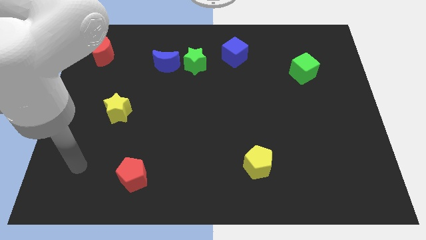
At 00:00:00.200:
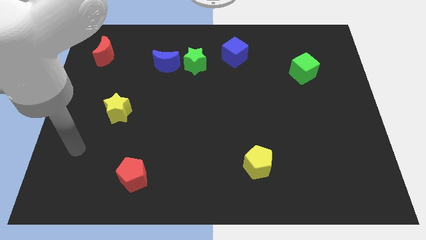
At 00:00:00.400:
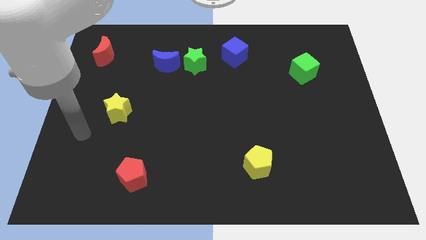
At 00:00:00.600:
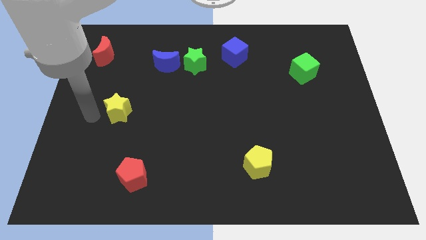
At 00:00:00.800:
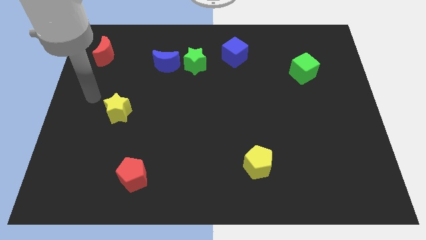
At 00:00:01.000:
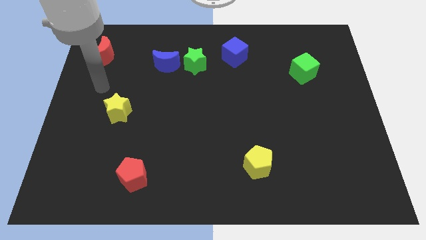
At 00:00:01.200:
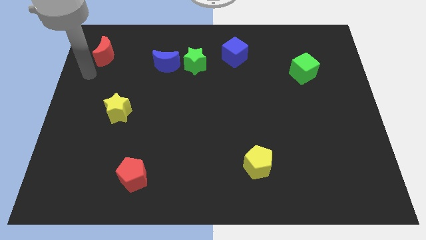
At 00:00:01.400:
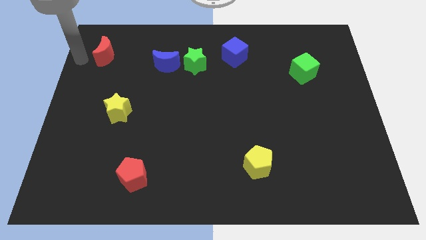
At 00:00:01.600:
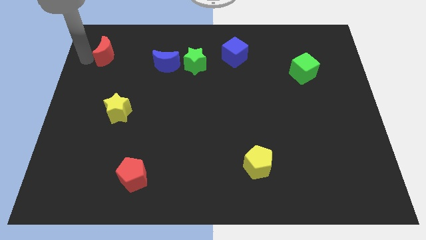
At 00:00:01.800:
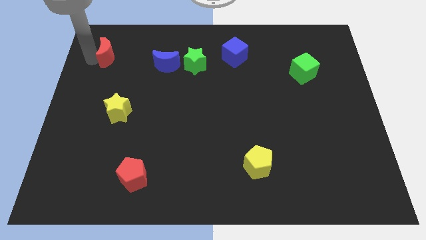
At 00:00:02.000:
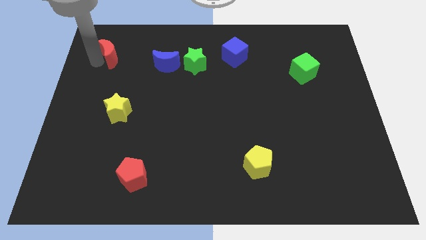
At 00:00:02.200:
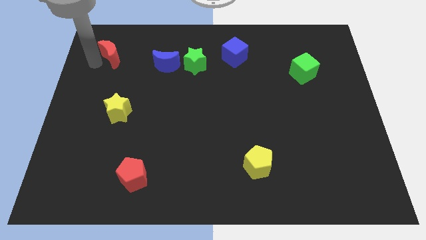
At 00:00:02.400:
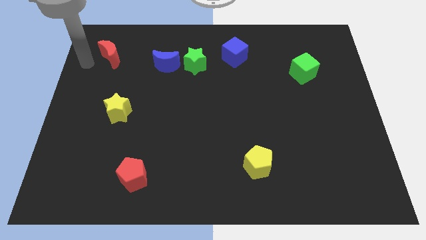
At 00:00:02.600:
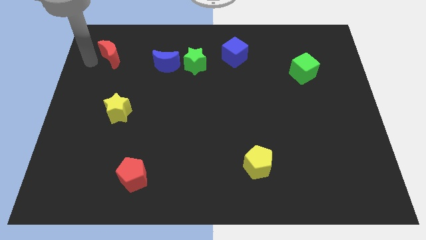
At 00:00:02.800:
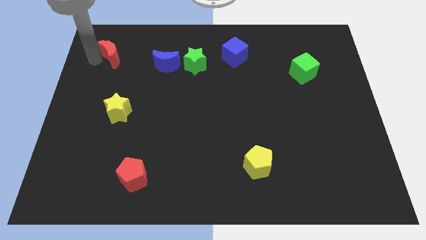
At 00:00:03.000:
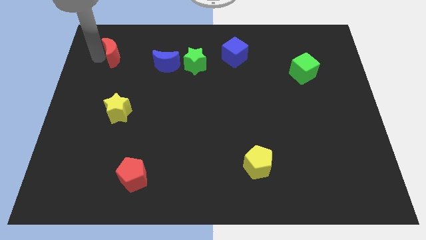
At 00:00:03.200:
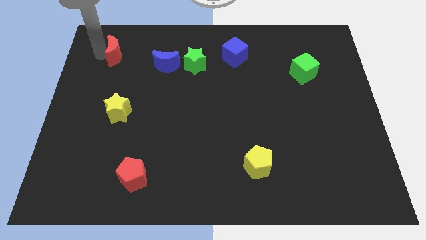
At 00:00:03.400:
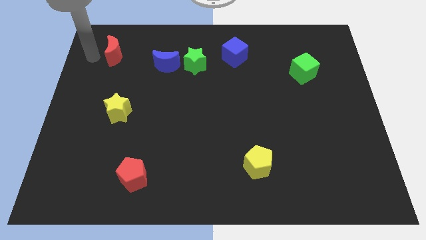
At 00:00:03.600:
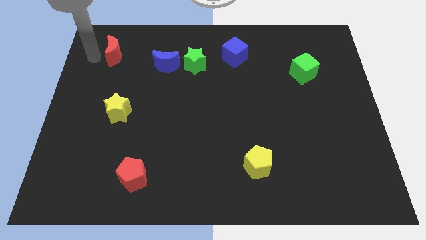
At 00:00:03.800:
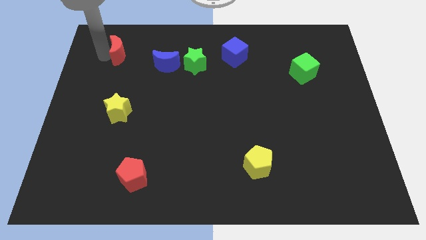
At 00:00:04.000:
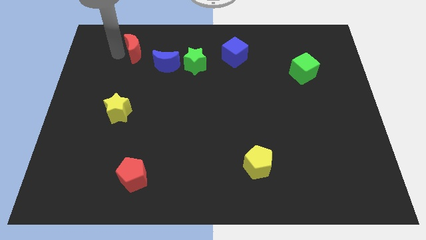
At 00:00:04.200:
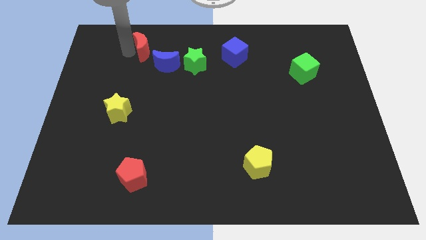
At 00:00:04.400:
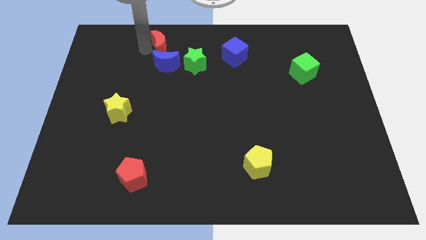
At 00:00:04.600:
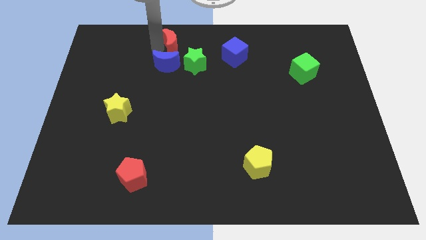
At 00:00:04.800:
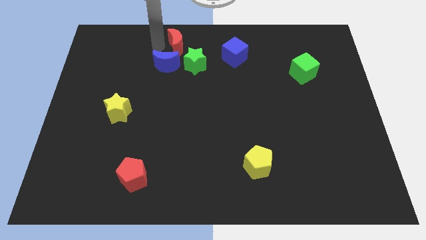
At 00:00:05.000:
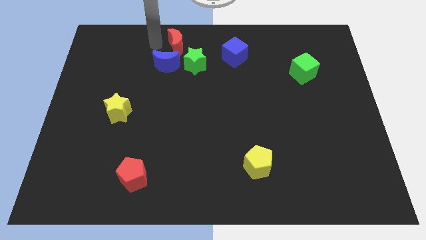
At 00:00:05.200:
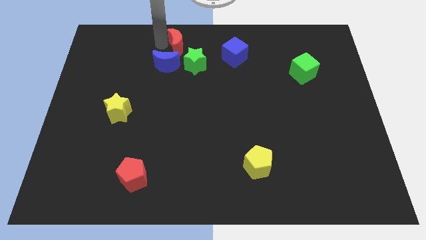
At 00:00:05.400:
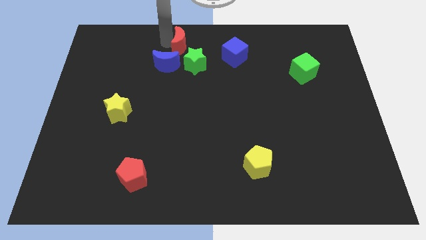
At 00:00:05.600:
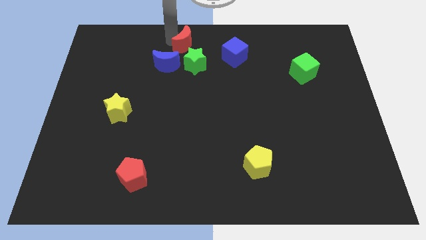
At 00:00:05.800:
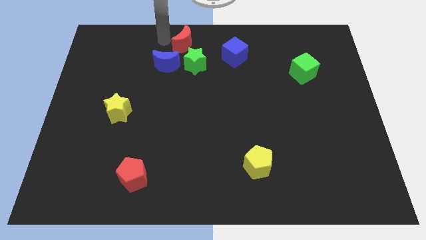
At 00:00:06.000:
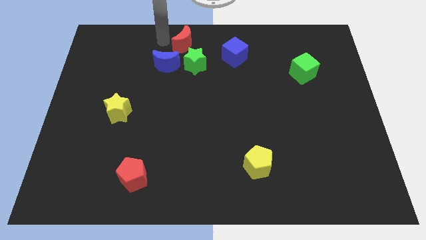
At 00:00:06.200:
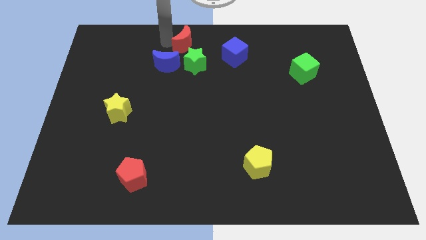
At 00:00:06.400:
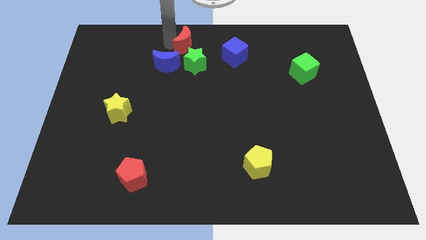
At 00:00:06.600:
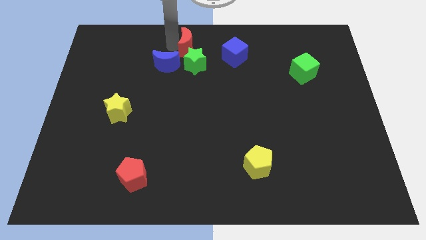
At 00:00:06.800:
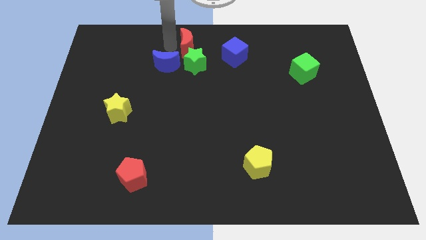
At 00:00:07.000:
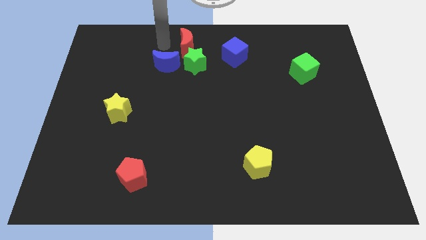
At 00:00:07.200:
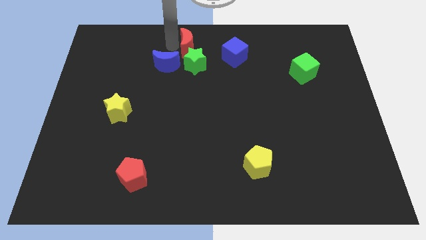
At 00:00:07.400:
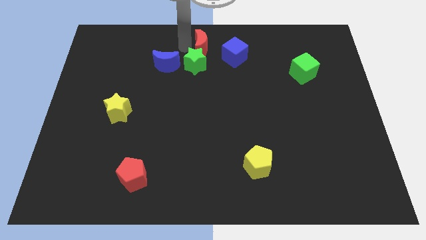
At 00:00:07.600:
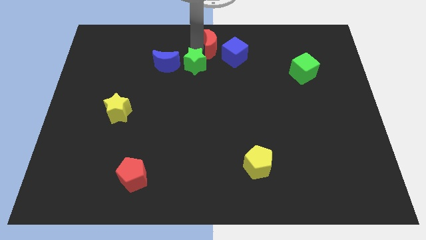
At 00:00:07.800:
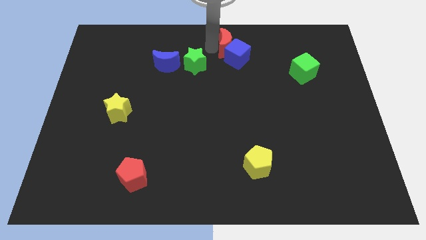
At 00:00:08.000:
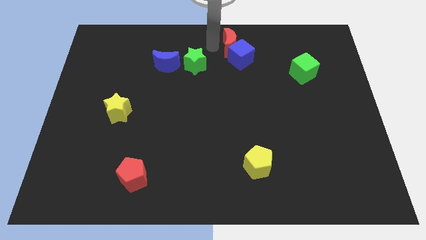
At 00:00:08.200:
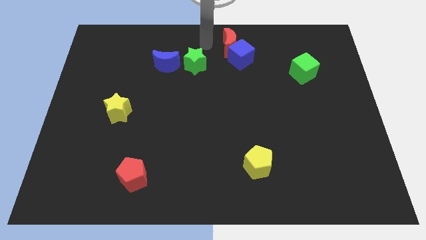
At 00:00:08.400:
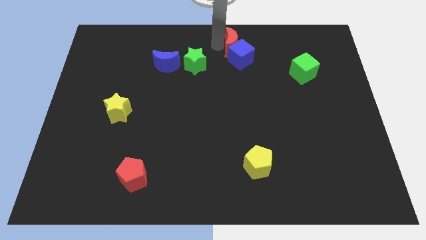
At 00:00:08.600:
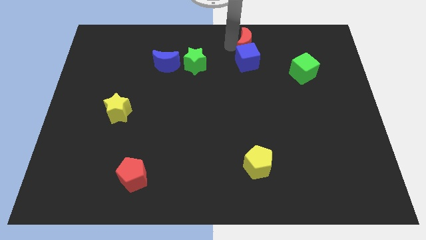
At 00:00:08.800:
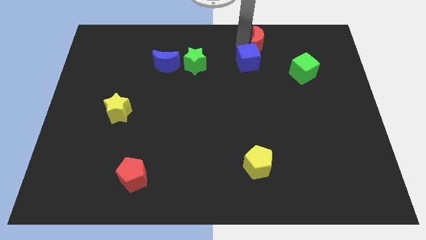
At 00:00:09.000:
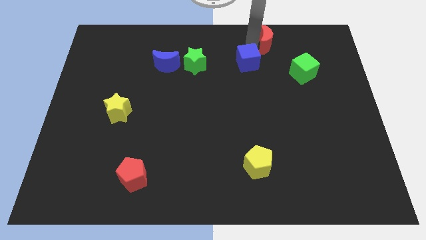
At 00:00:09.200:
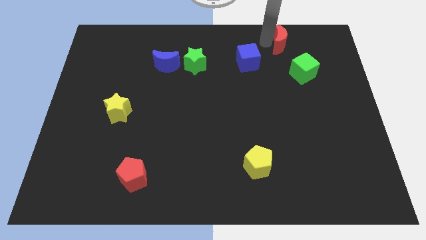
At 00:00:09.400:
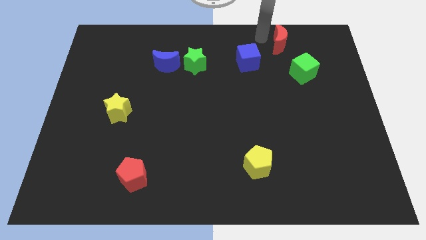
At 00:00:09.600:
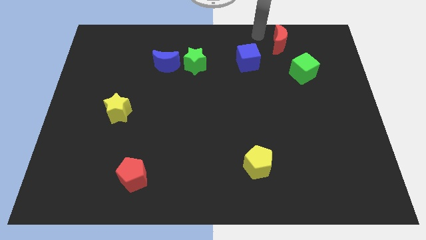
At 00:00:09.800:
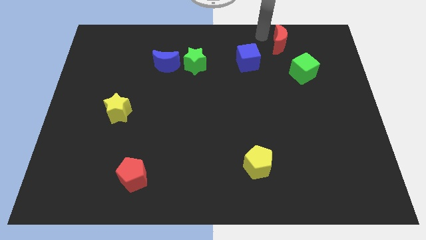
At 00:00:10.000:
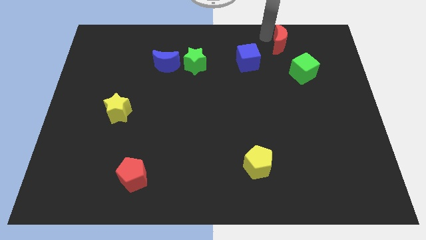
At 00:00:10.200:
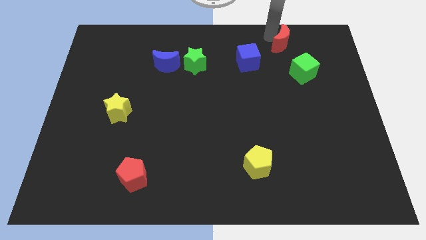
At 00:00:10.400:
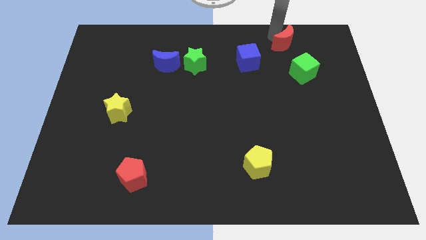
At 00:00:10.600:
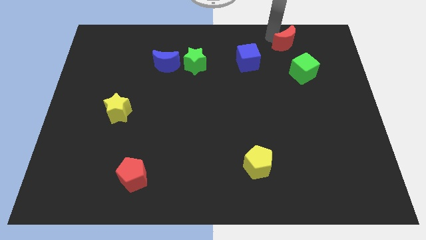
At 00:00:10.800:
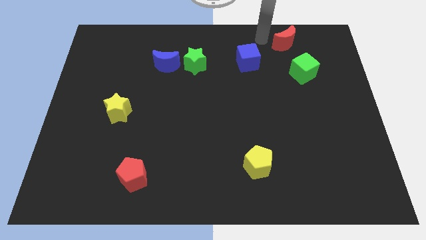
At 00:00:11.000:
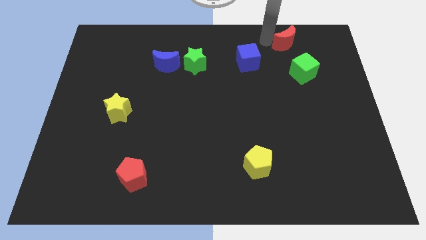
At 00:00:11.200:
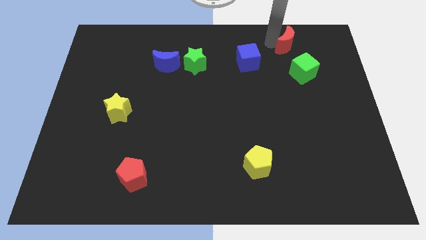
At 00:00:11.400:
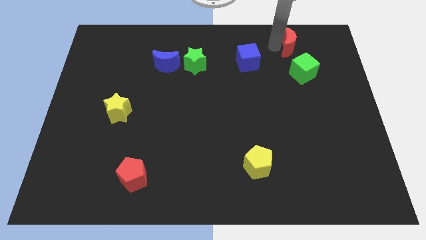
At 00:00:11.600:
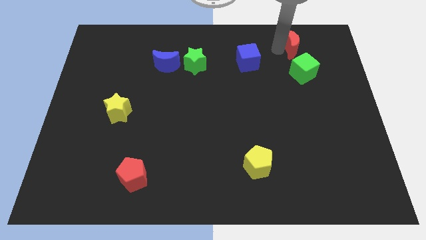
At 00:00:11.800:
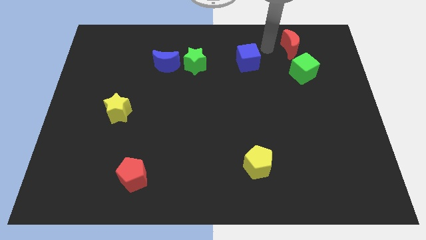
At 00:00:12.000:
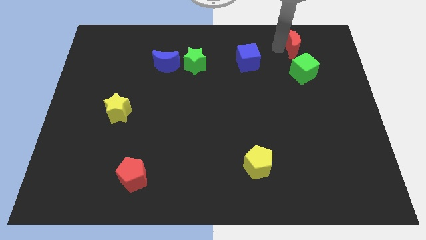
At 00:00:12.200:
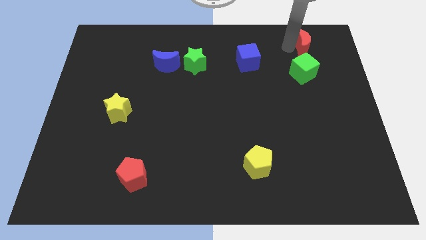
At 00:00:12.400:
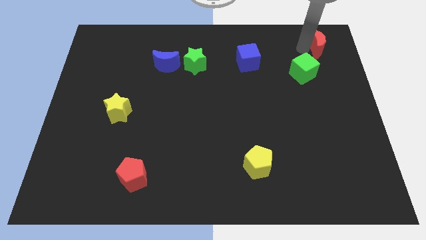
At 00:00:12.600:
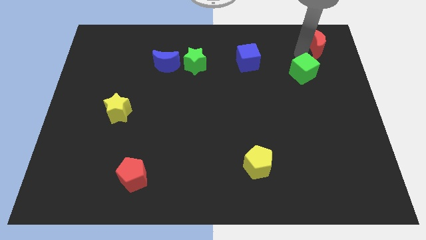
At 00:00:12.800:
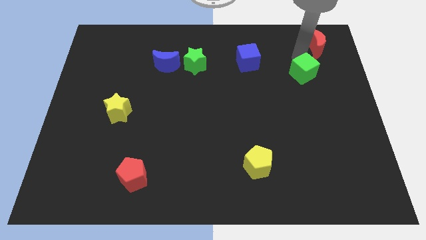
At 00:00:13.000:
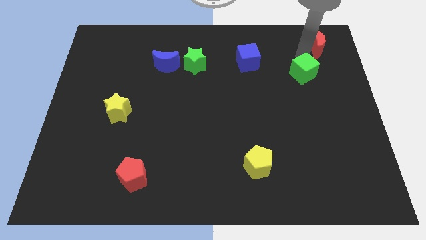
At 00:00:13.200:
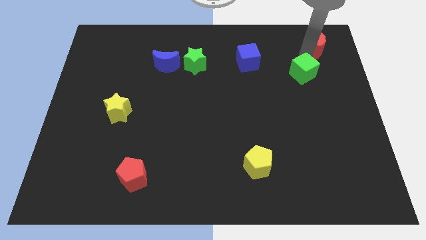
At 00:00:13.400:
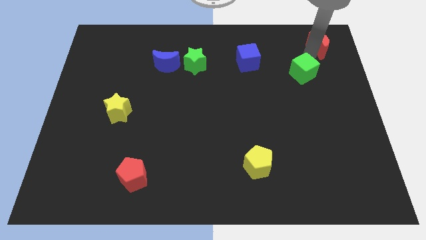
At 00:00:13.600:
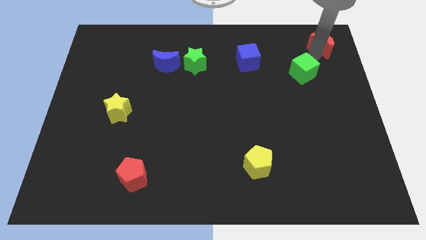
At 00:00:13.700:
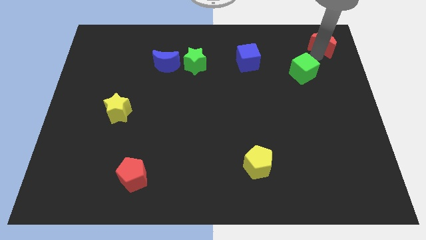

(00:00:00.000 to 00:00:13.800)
slide the red moon to the top right
